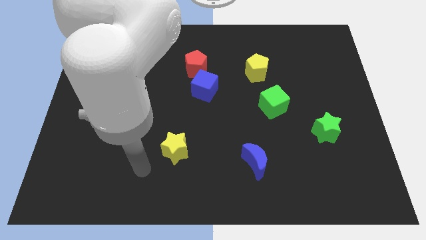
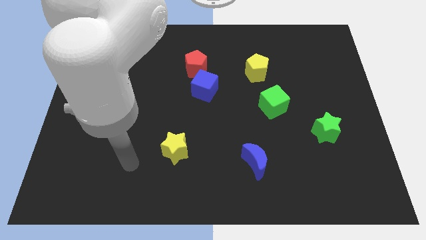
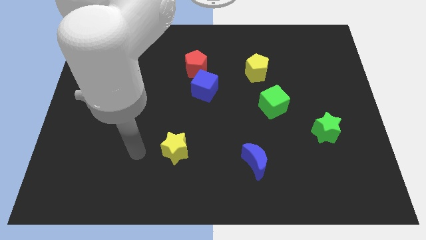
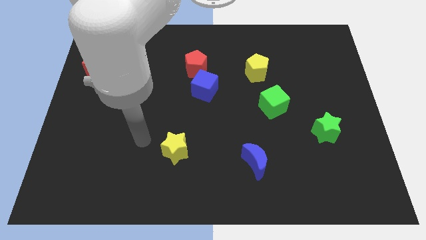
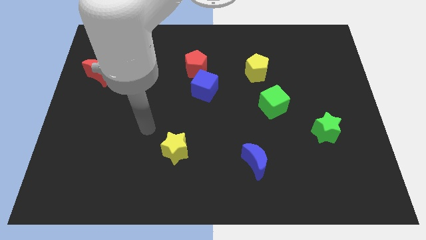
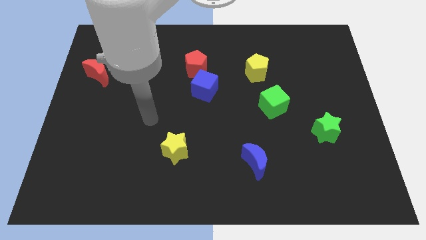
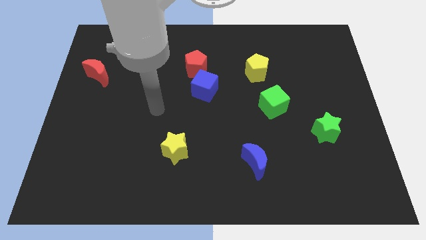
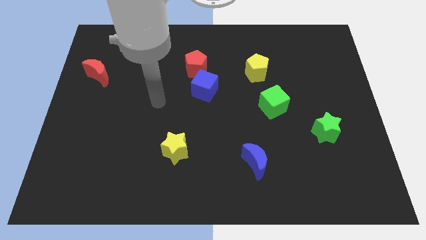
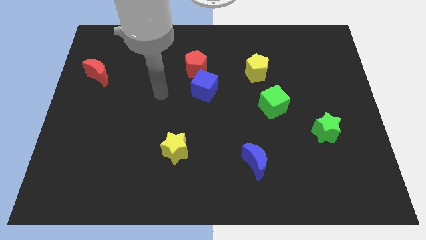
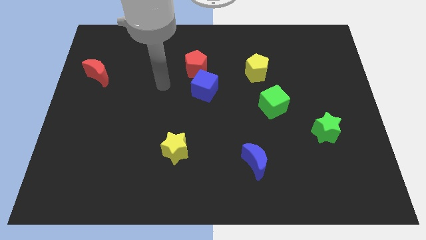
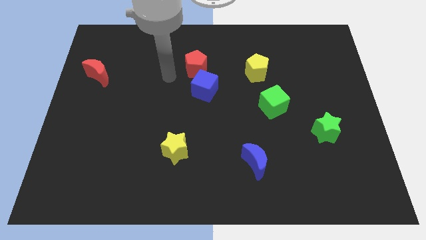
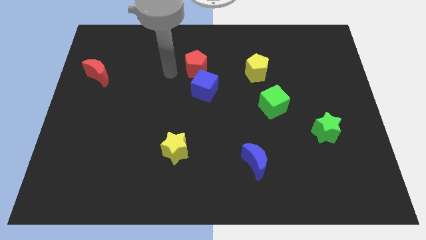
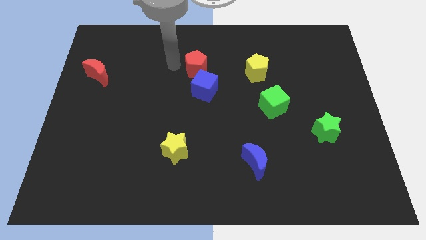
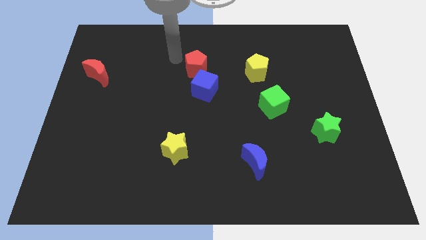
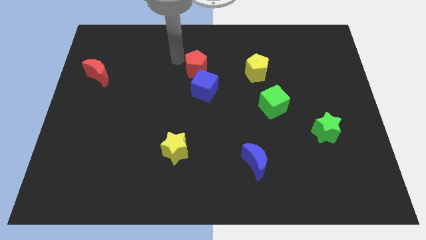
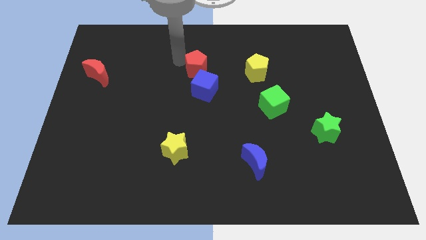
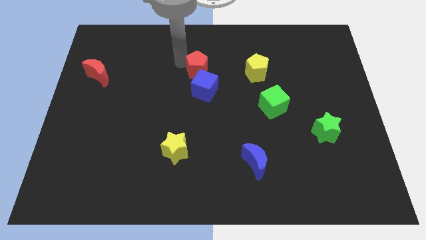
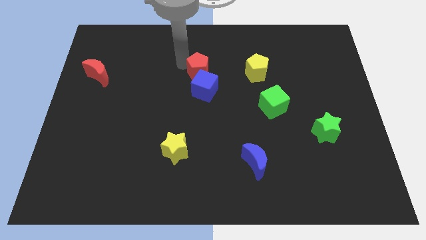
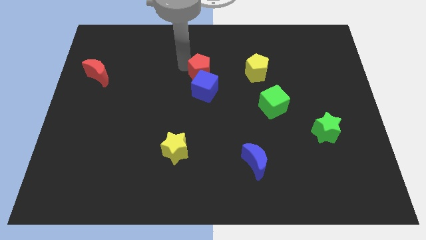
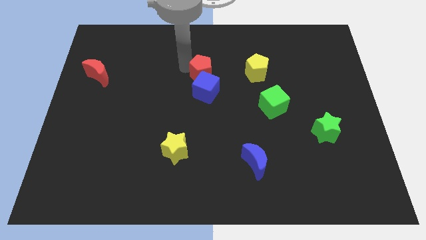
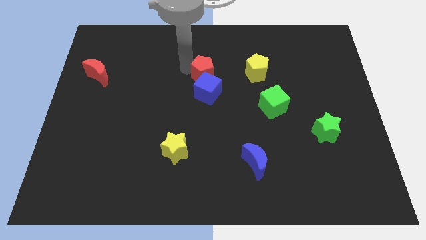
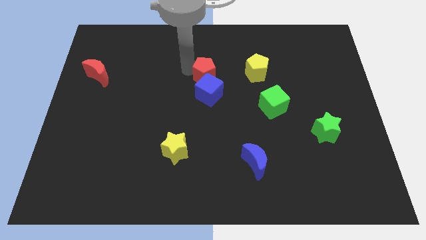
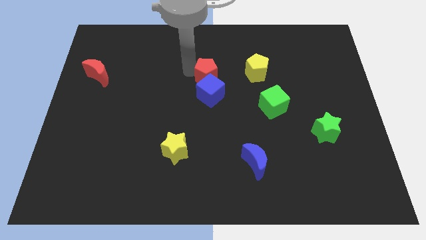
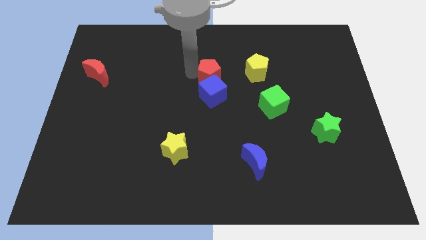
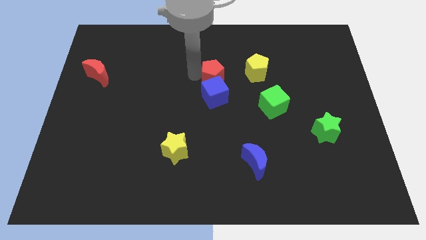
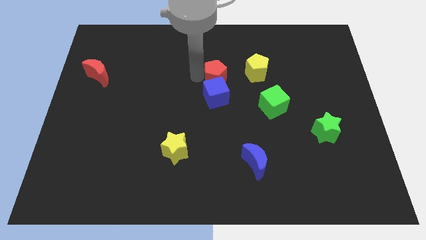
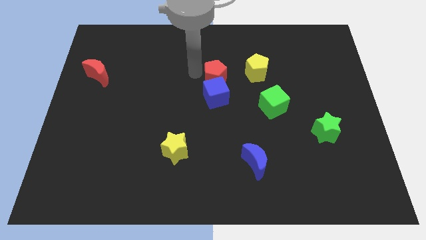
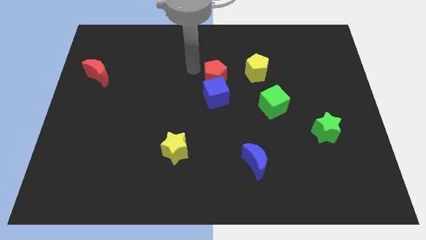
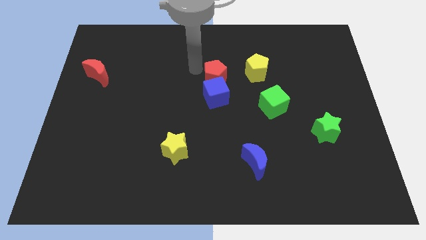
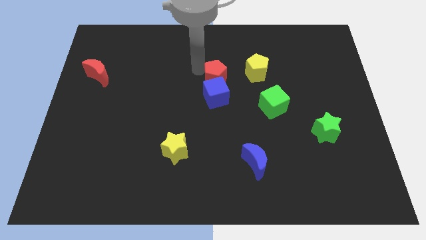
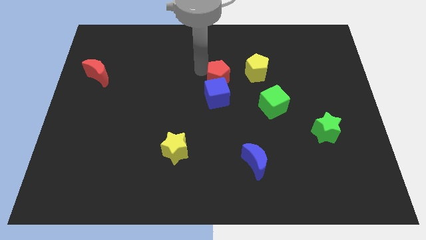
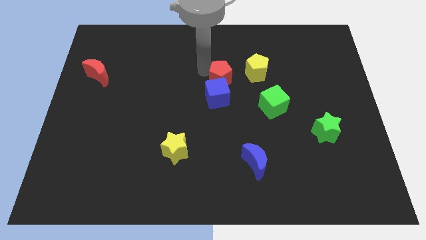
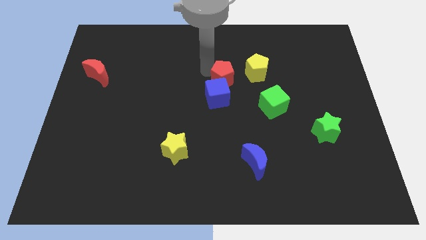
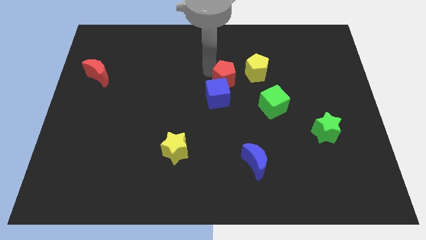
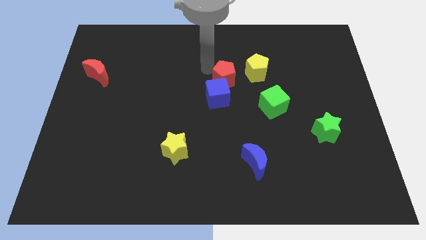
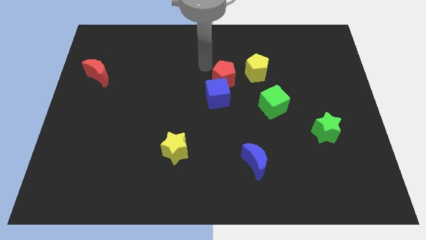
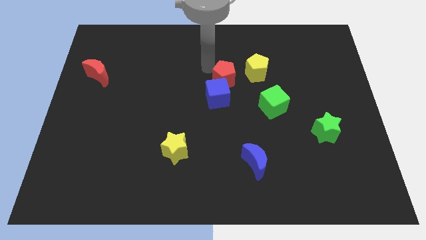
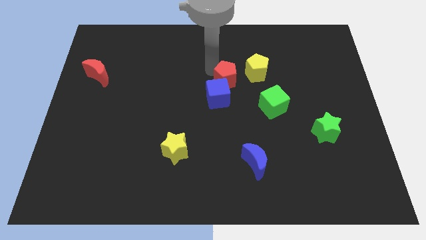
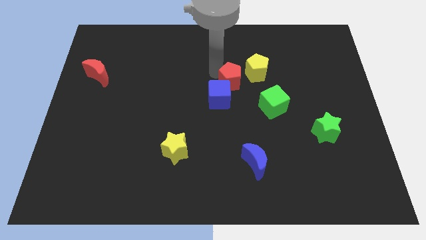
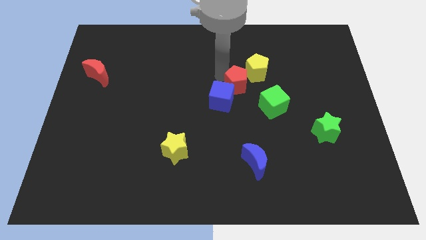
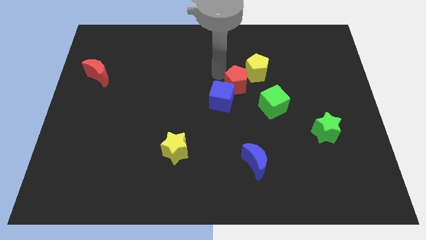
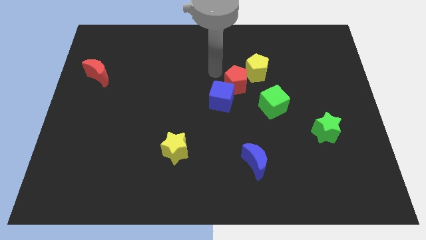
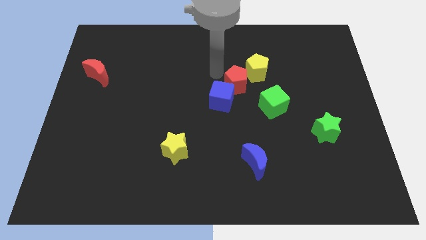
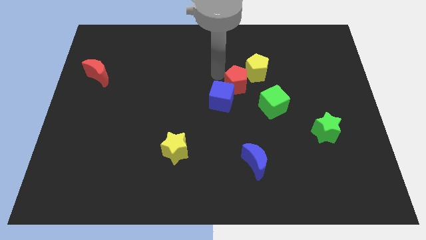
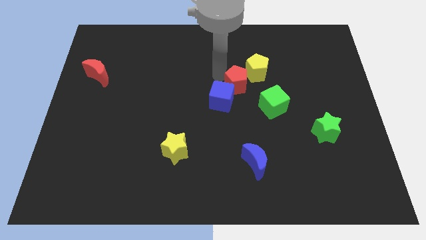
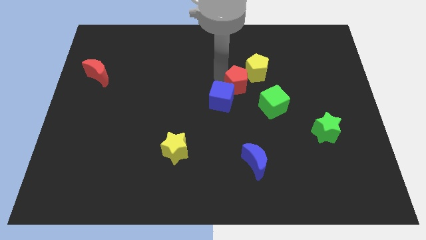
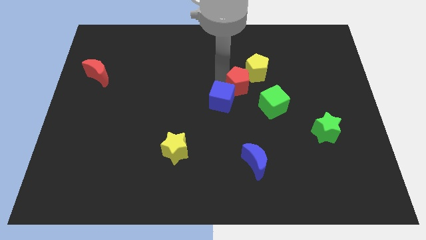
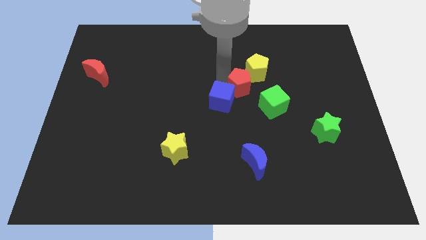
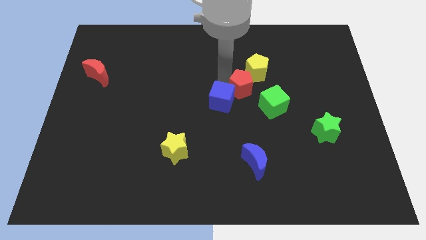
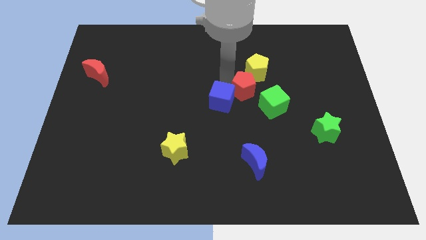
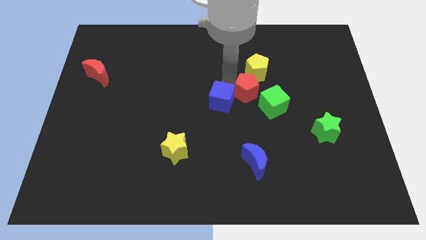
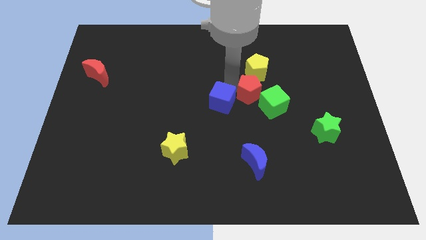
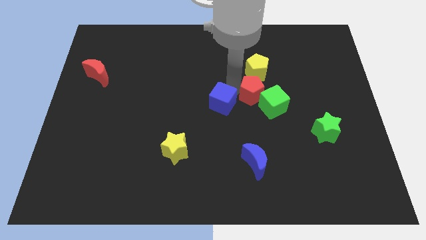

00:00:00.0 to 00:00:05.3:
push the red pentagon next to the green cube
